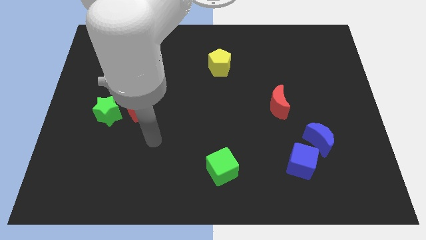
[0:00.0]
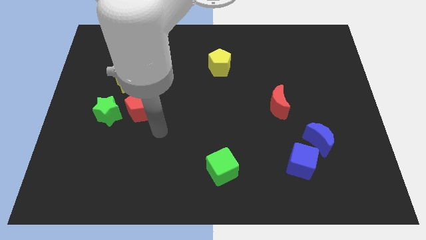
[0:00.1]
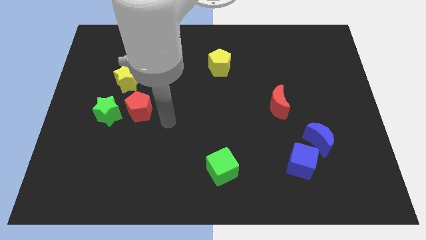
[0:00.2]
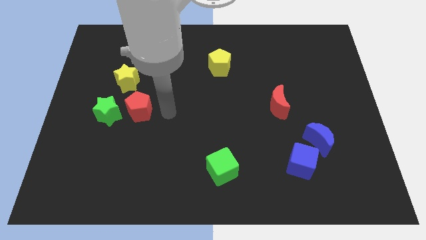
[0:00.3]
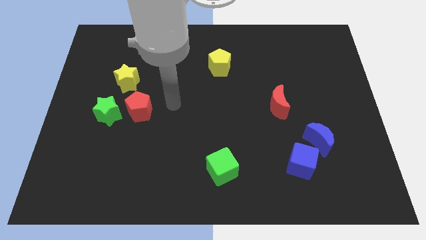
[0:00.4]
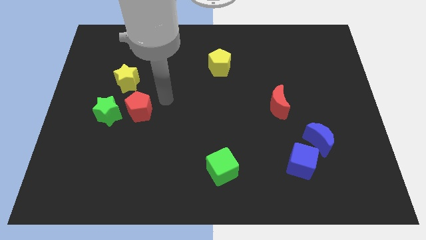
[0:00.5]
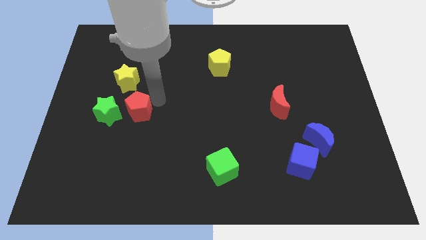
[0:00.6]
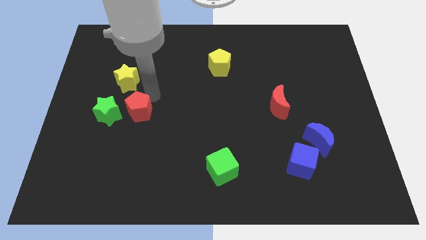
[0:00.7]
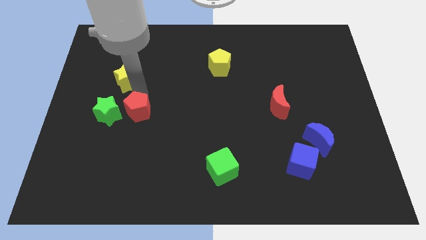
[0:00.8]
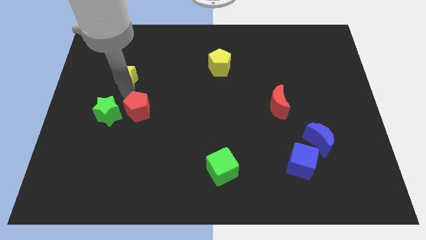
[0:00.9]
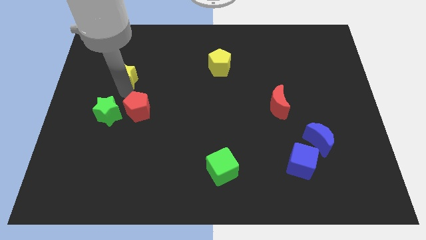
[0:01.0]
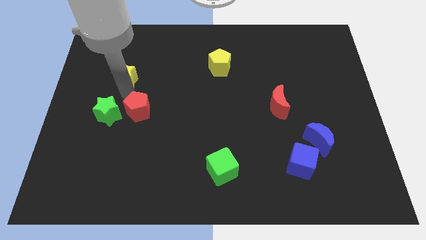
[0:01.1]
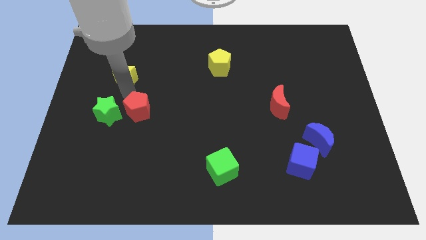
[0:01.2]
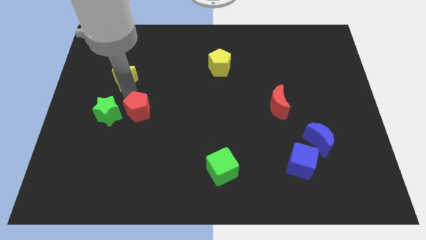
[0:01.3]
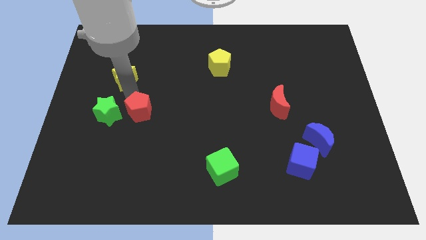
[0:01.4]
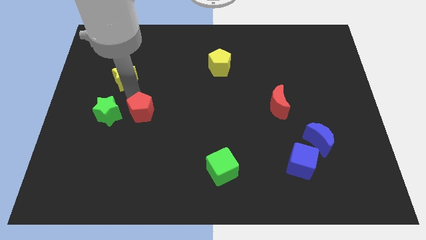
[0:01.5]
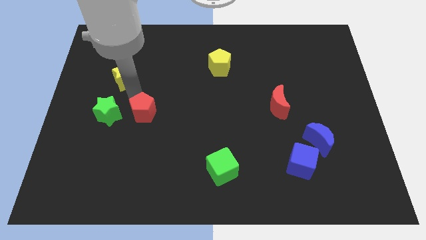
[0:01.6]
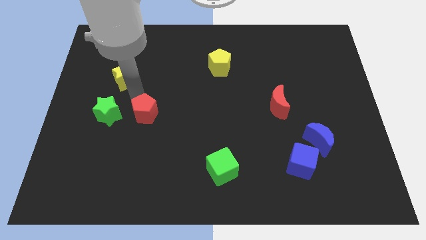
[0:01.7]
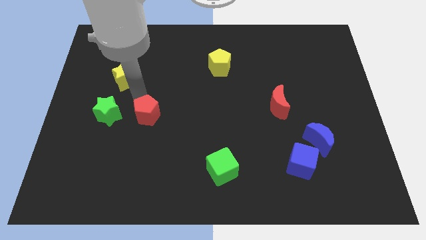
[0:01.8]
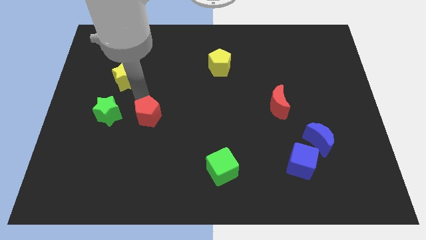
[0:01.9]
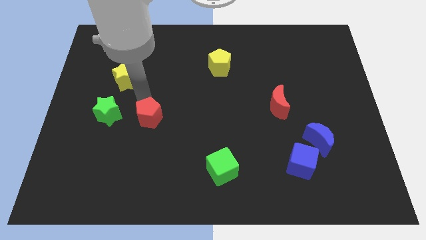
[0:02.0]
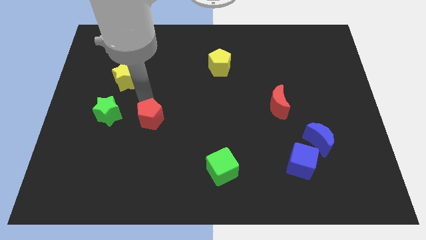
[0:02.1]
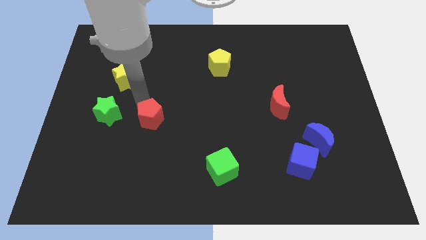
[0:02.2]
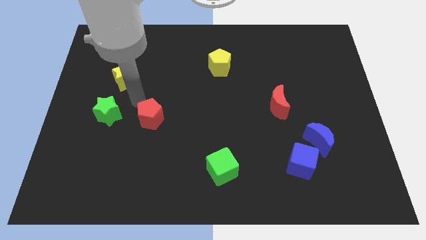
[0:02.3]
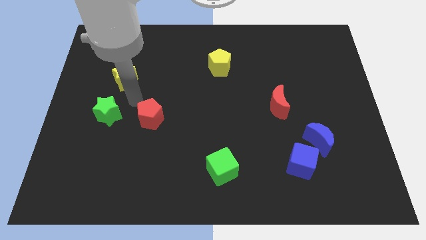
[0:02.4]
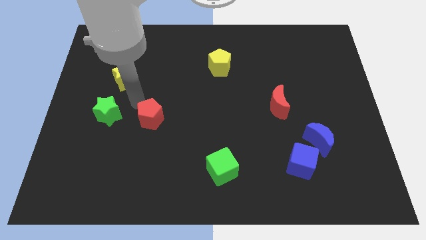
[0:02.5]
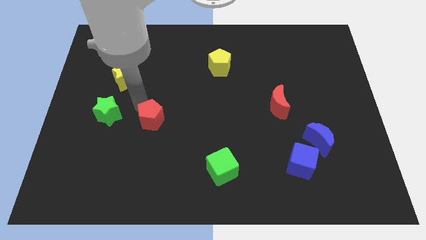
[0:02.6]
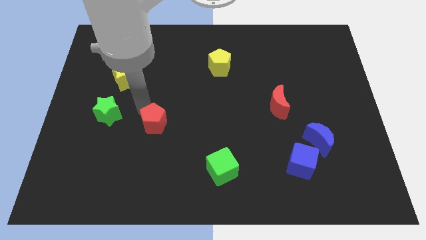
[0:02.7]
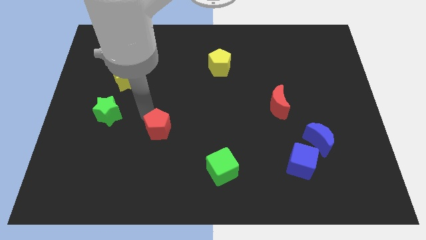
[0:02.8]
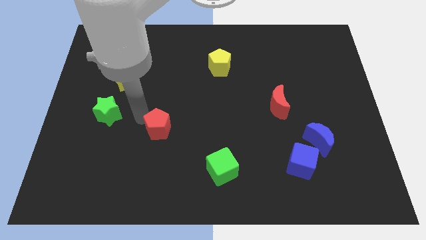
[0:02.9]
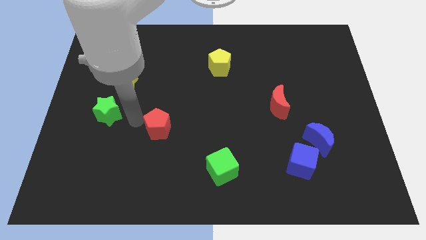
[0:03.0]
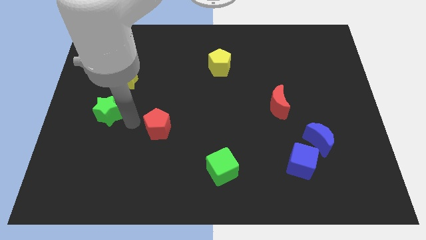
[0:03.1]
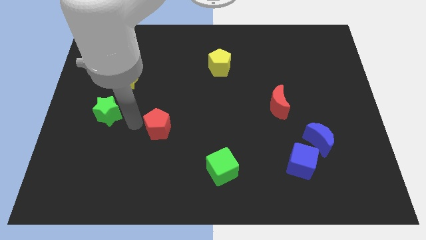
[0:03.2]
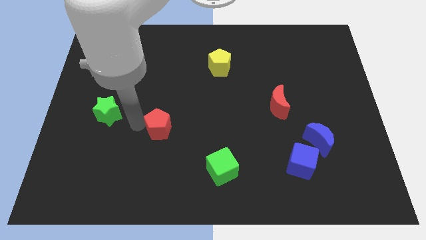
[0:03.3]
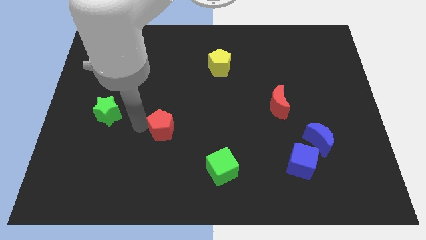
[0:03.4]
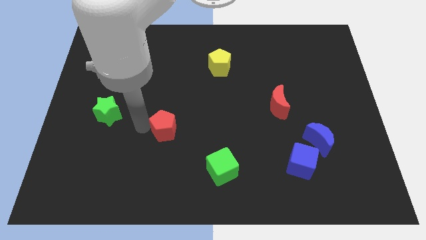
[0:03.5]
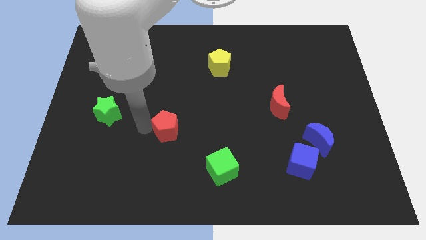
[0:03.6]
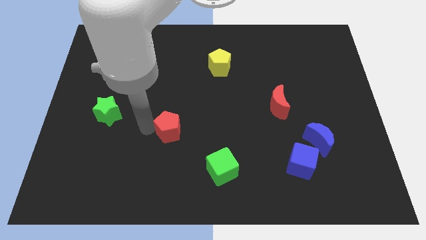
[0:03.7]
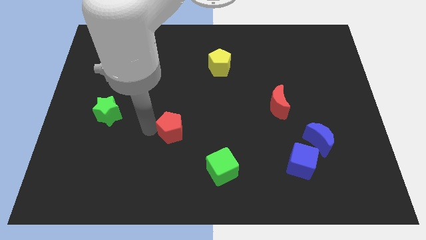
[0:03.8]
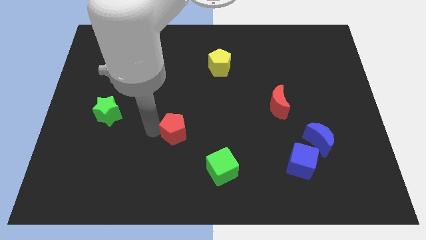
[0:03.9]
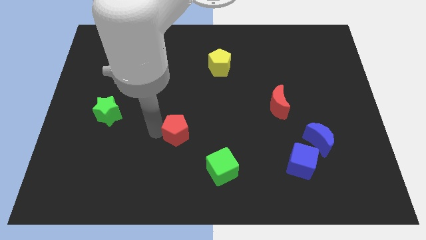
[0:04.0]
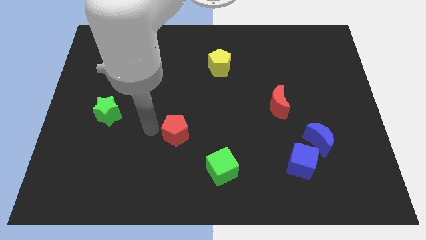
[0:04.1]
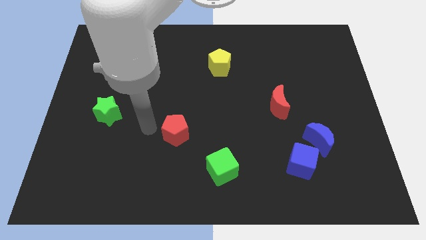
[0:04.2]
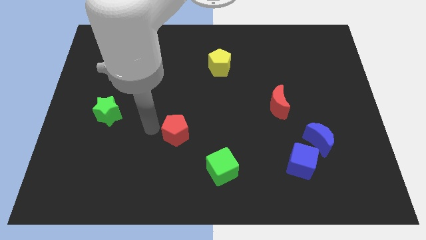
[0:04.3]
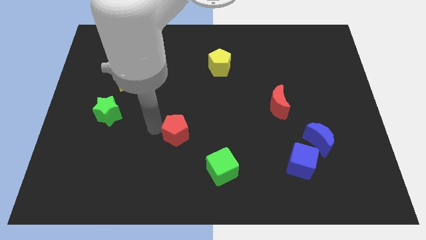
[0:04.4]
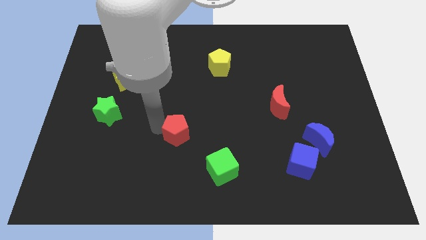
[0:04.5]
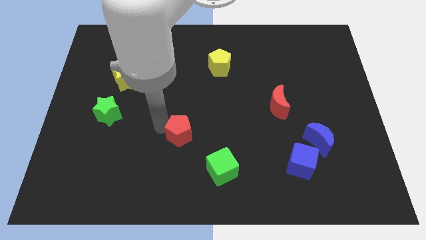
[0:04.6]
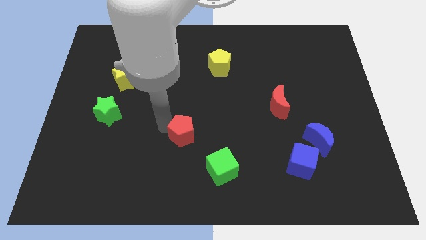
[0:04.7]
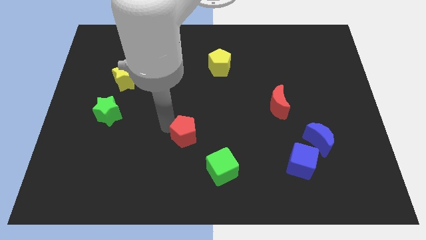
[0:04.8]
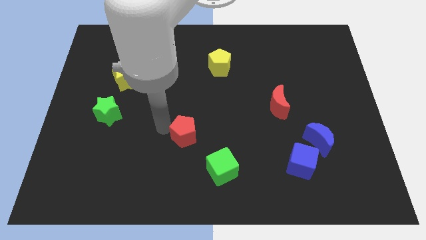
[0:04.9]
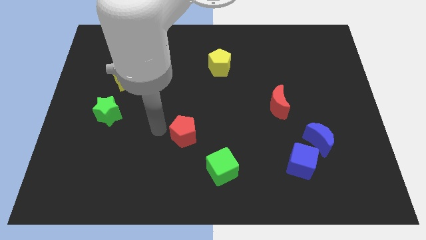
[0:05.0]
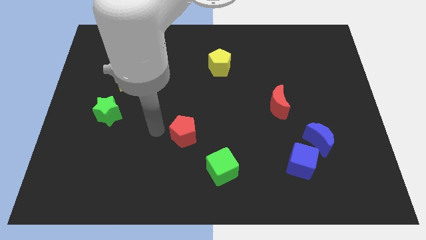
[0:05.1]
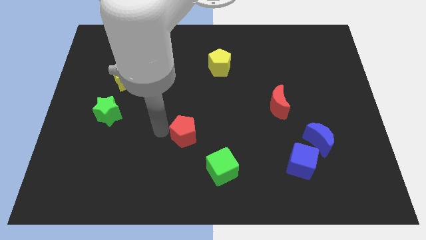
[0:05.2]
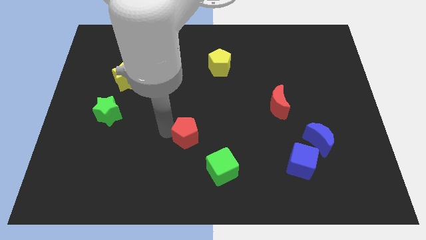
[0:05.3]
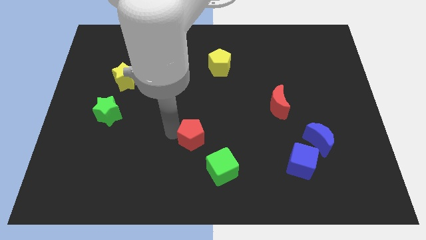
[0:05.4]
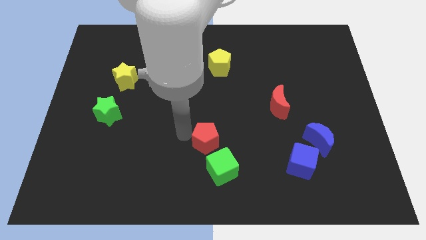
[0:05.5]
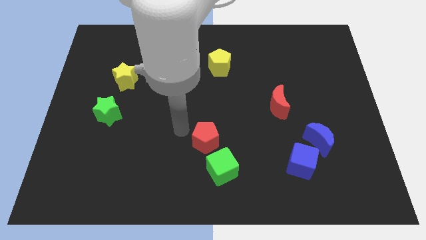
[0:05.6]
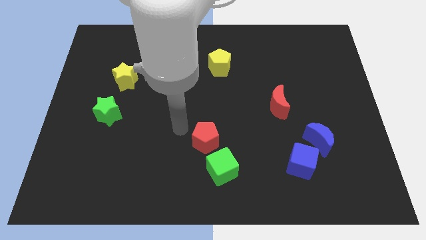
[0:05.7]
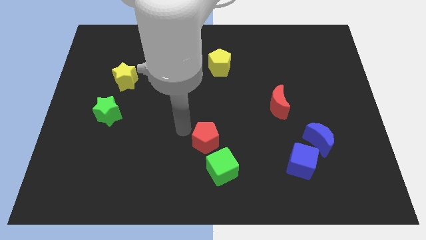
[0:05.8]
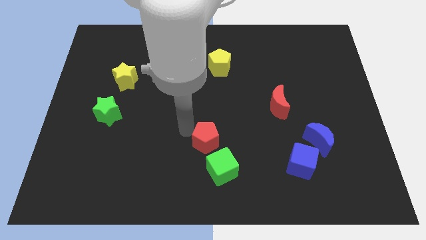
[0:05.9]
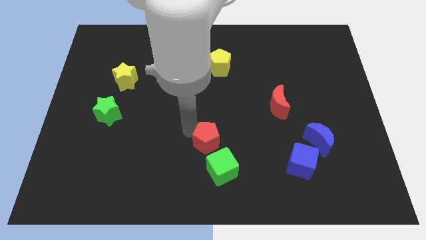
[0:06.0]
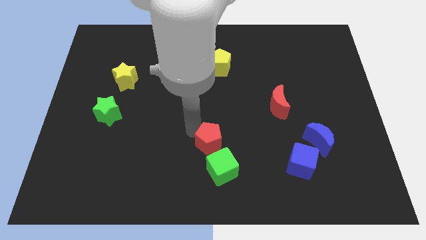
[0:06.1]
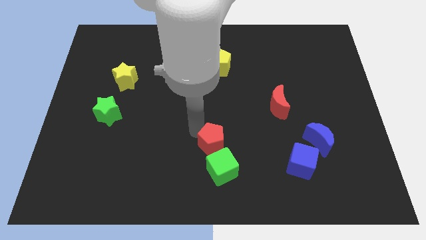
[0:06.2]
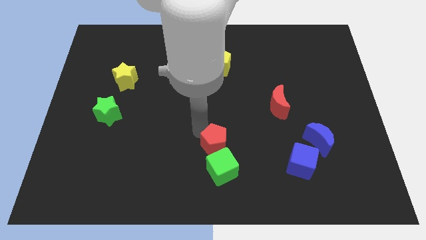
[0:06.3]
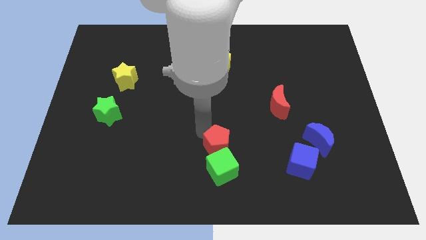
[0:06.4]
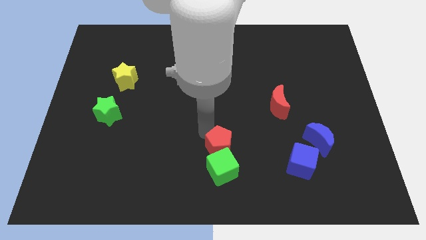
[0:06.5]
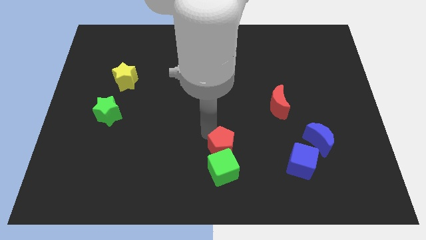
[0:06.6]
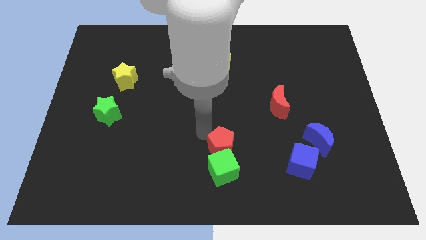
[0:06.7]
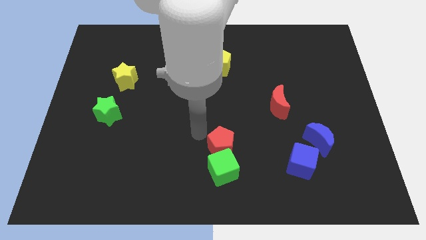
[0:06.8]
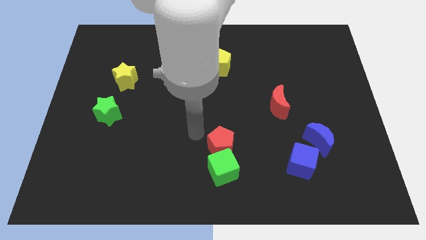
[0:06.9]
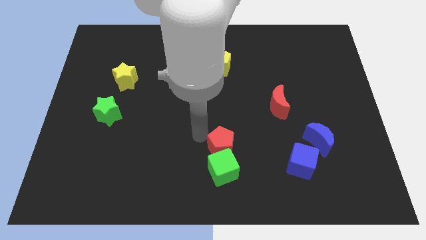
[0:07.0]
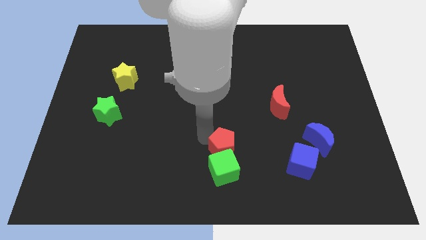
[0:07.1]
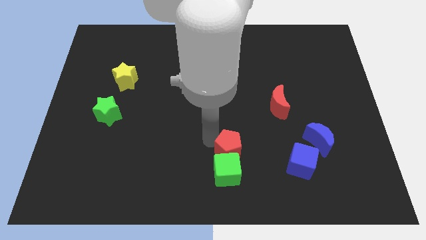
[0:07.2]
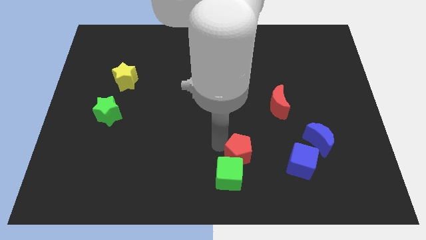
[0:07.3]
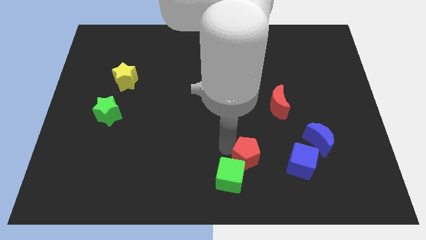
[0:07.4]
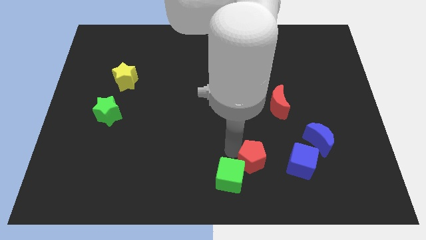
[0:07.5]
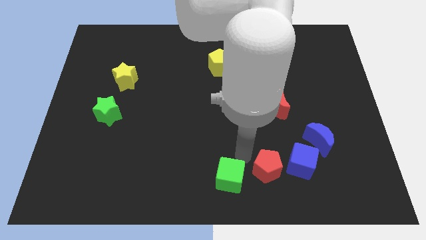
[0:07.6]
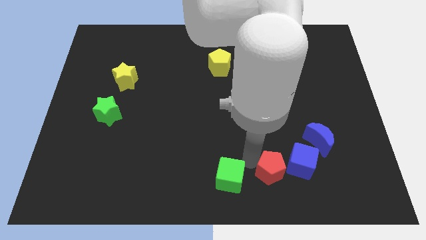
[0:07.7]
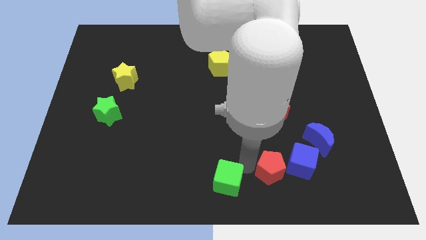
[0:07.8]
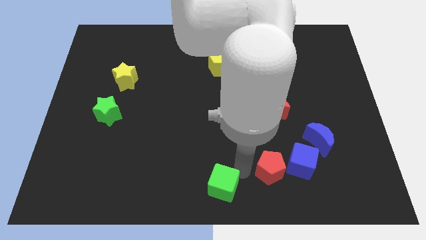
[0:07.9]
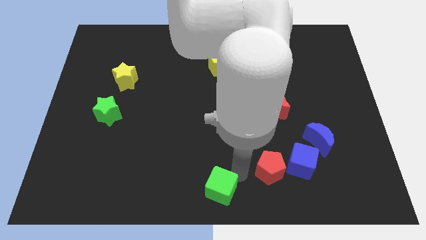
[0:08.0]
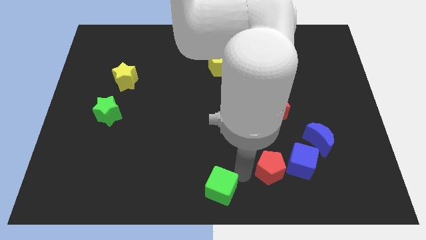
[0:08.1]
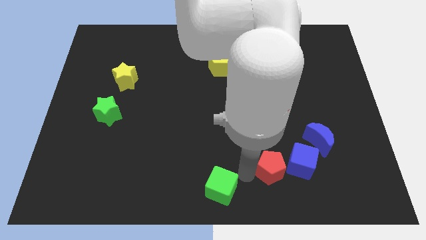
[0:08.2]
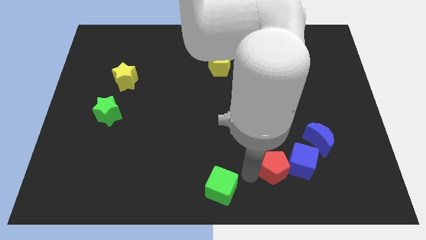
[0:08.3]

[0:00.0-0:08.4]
slide the red pentagon towards the blue cube
